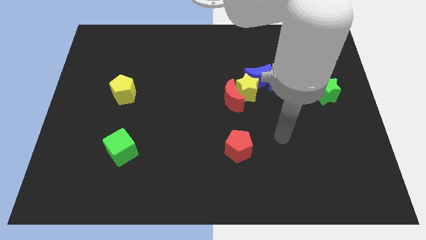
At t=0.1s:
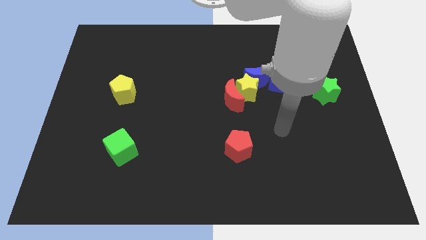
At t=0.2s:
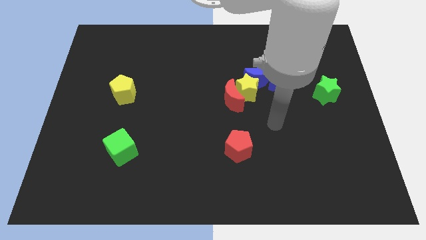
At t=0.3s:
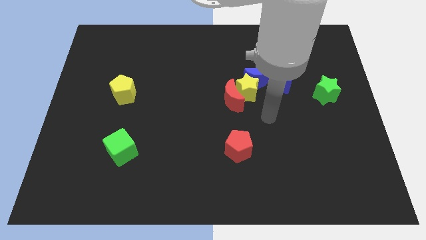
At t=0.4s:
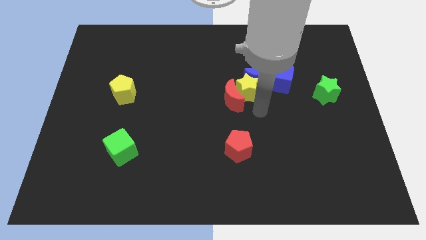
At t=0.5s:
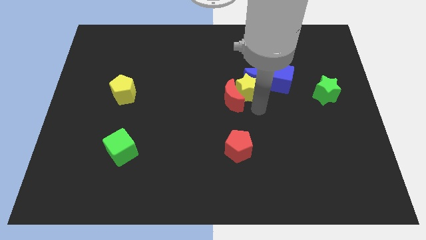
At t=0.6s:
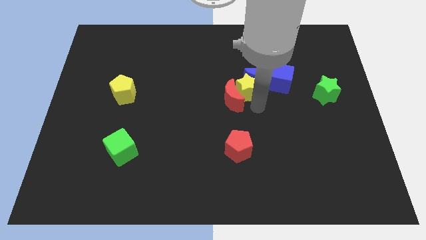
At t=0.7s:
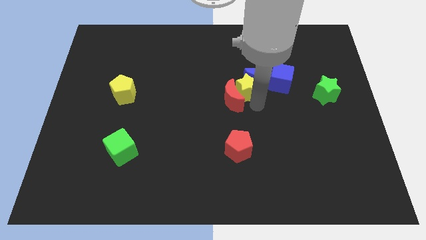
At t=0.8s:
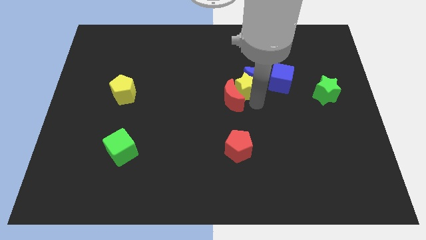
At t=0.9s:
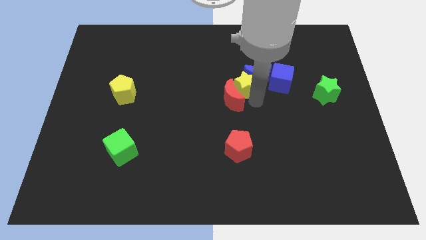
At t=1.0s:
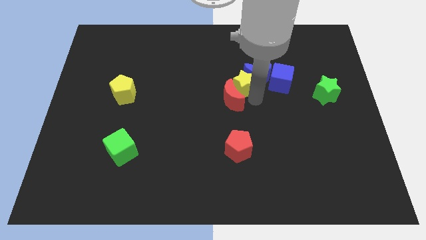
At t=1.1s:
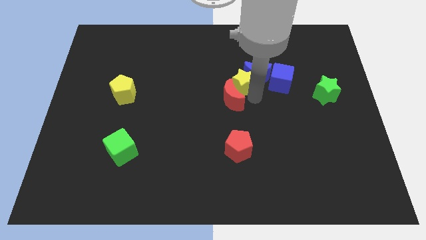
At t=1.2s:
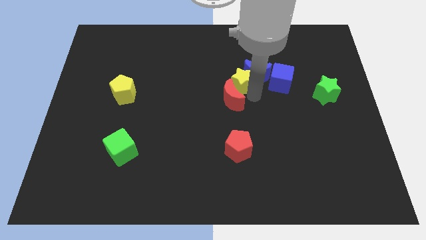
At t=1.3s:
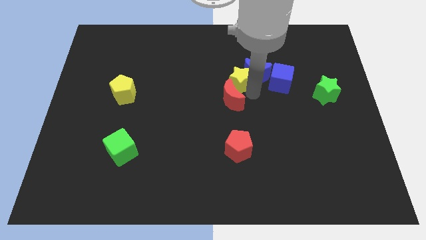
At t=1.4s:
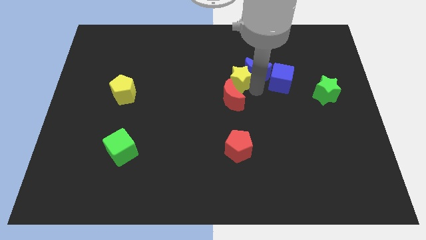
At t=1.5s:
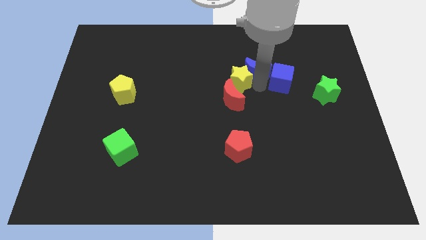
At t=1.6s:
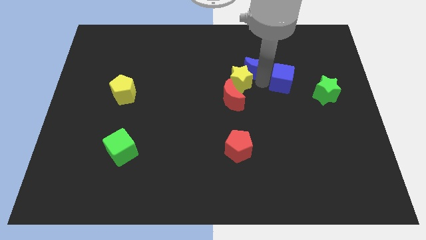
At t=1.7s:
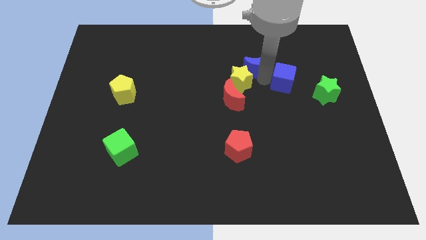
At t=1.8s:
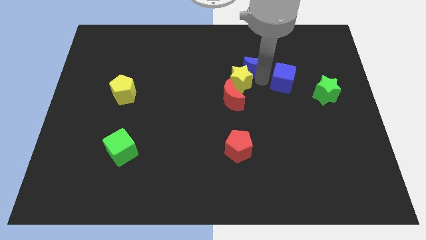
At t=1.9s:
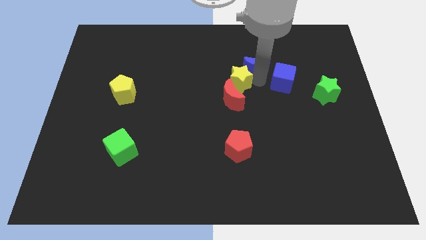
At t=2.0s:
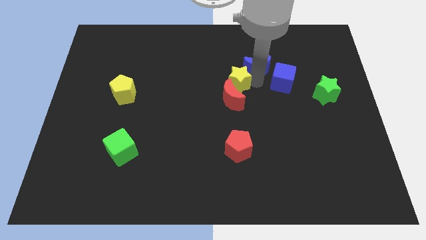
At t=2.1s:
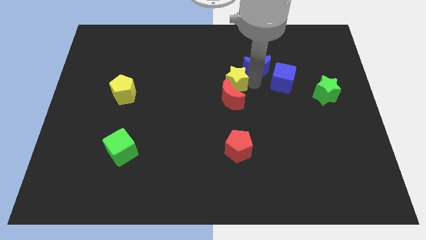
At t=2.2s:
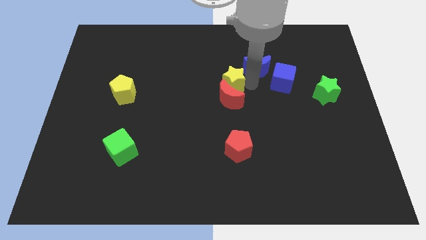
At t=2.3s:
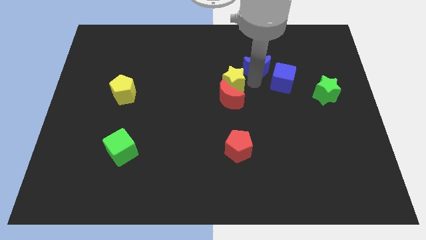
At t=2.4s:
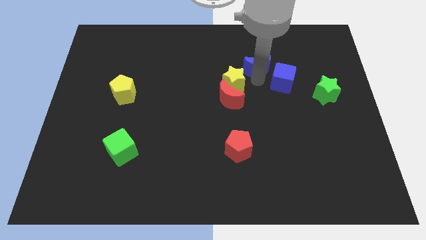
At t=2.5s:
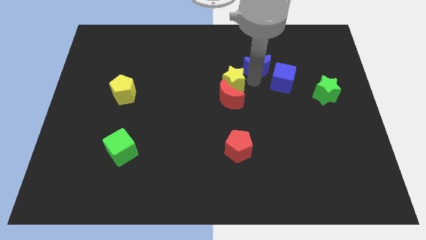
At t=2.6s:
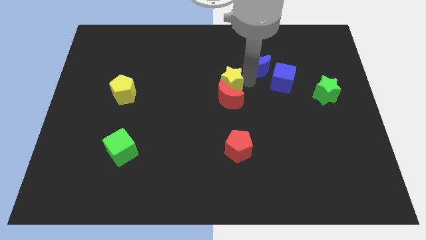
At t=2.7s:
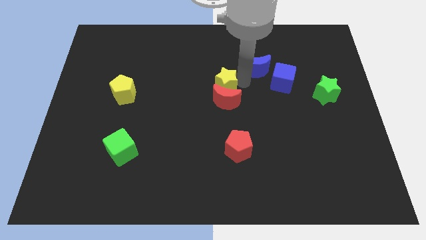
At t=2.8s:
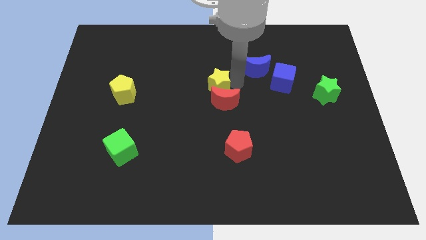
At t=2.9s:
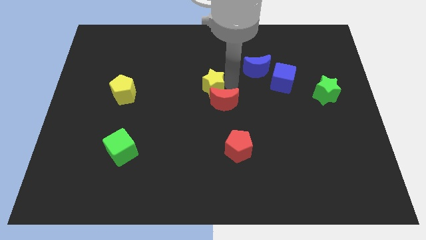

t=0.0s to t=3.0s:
separate the yellow star from the red moon, blue moon, and blue cube

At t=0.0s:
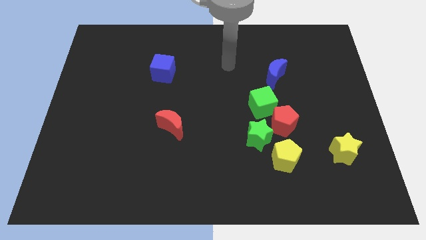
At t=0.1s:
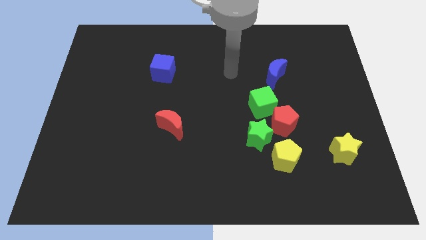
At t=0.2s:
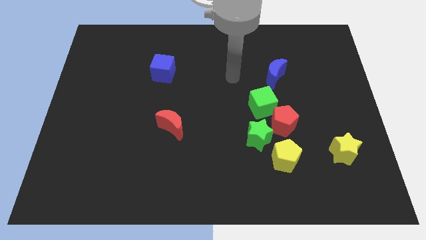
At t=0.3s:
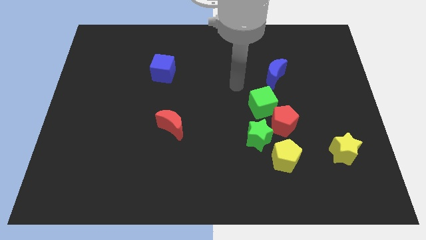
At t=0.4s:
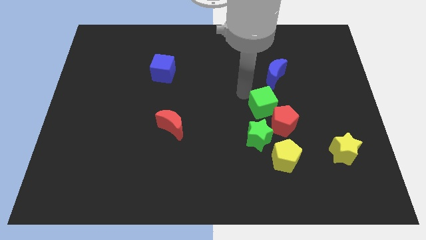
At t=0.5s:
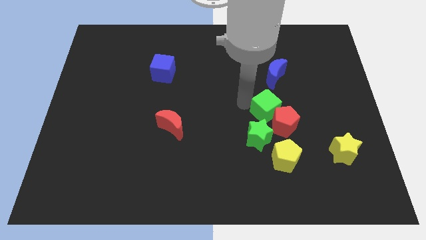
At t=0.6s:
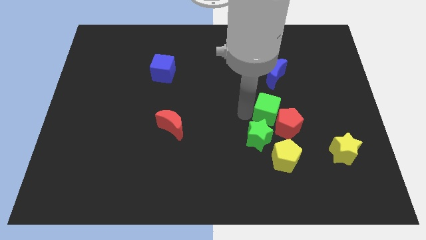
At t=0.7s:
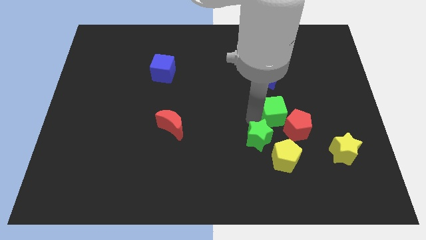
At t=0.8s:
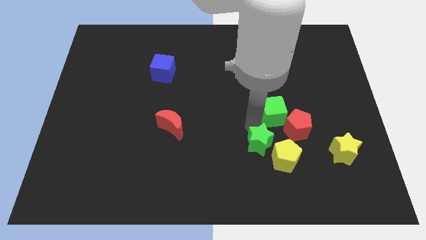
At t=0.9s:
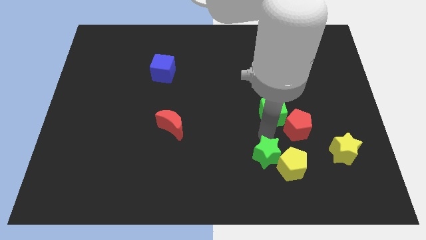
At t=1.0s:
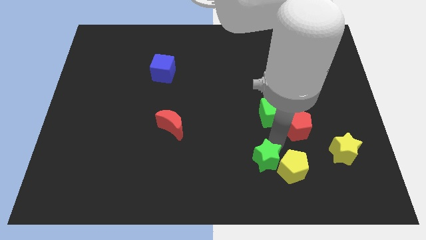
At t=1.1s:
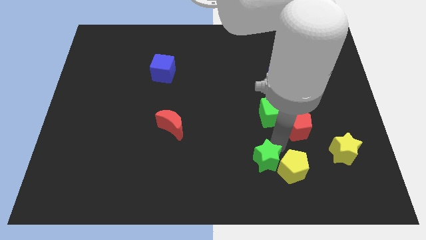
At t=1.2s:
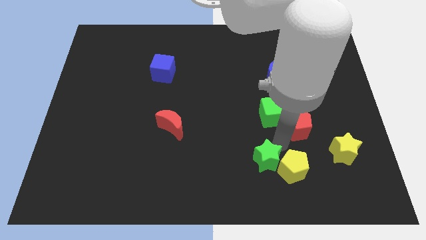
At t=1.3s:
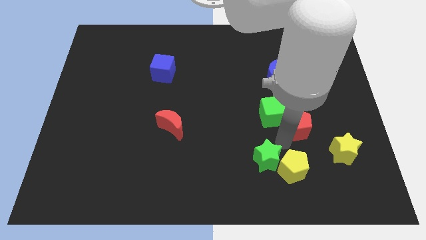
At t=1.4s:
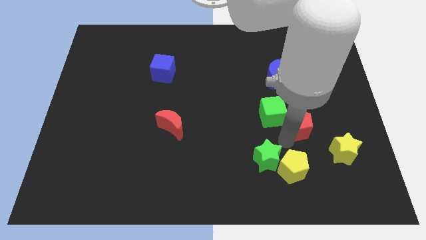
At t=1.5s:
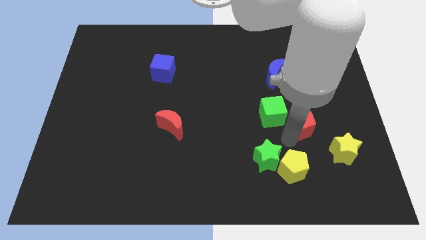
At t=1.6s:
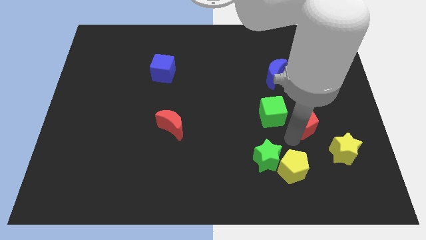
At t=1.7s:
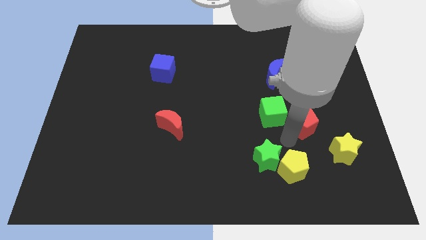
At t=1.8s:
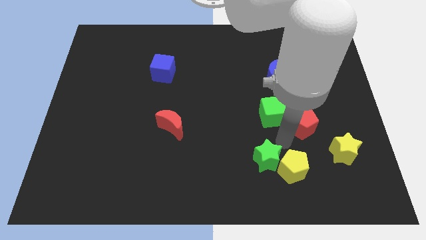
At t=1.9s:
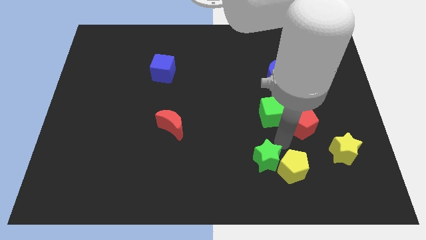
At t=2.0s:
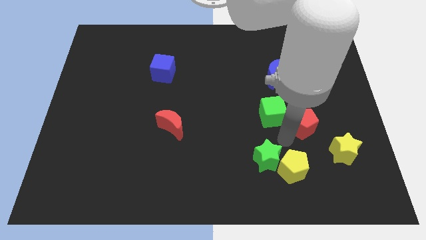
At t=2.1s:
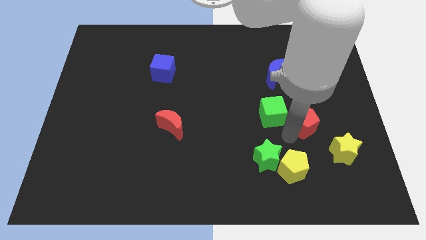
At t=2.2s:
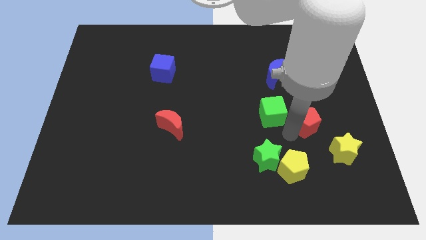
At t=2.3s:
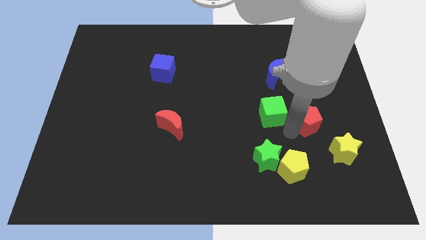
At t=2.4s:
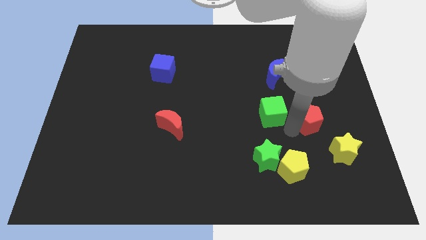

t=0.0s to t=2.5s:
pull the red pentagon apart from the group

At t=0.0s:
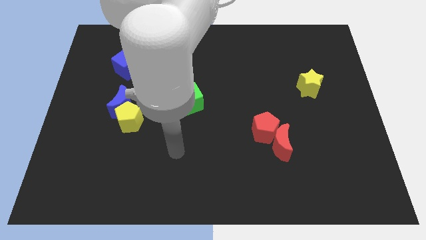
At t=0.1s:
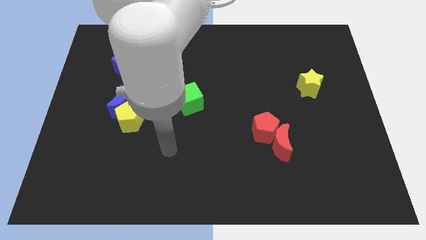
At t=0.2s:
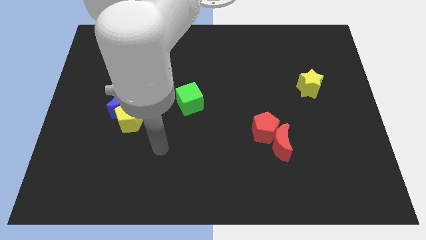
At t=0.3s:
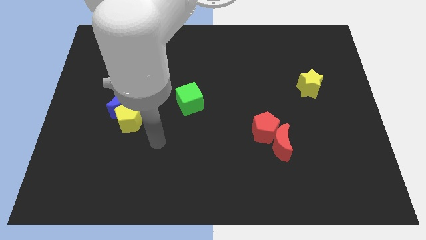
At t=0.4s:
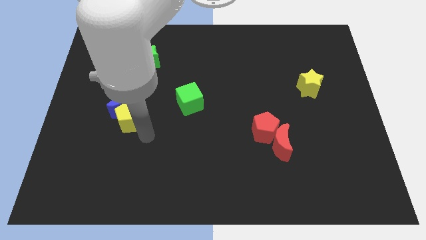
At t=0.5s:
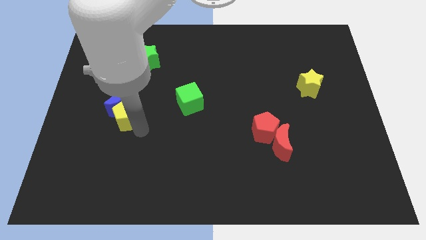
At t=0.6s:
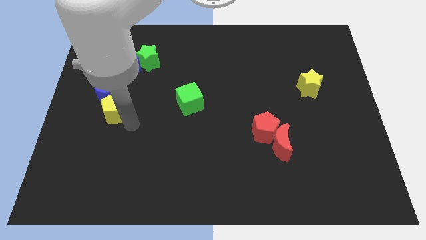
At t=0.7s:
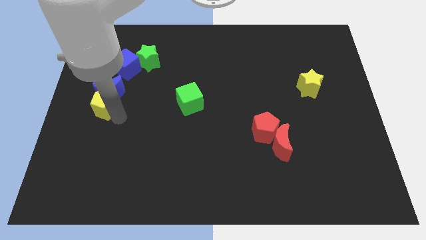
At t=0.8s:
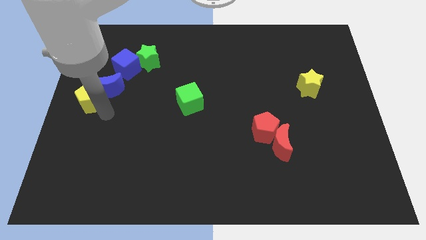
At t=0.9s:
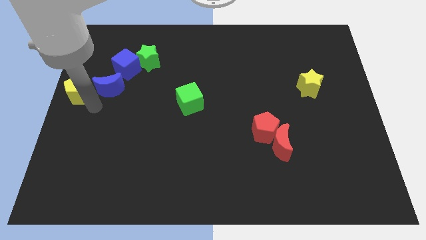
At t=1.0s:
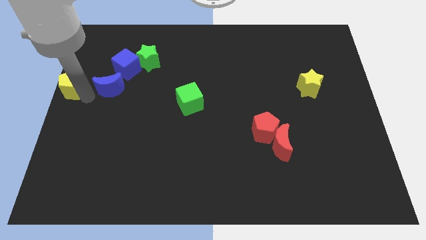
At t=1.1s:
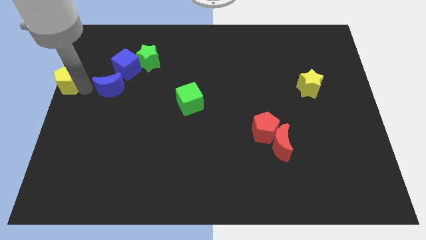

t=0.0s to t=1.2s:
move the blue moon away from the yellow pentagon

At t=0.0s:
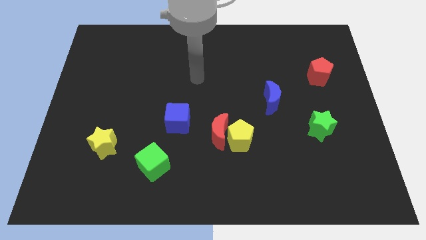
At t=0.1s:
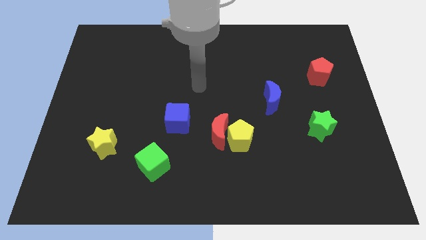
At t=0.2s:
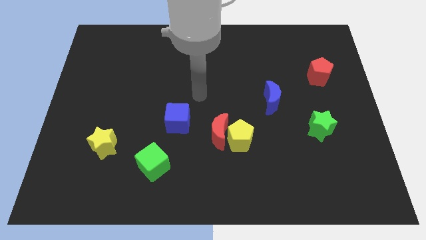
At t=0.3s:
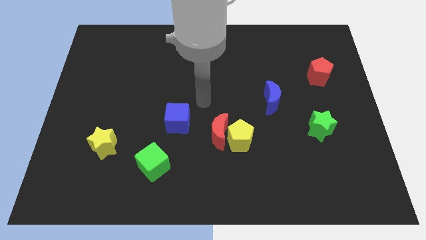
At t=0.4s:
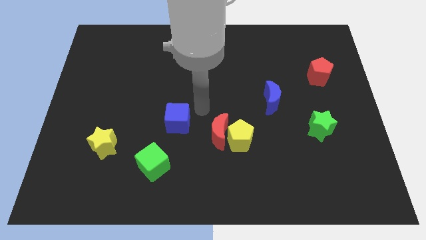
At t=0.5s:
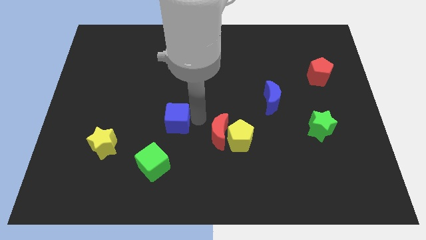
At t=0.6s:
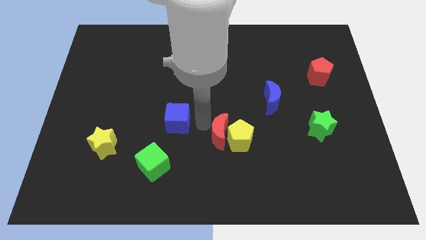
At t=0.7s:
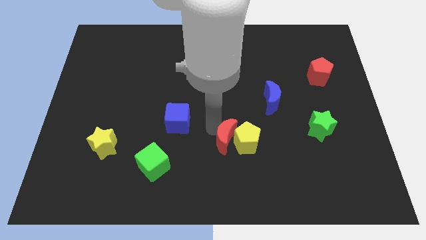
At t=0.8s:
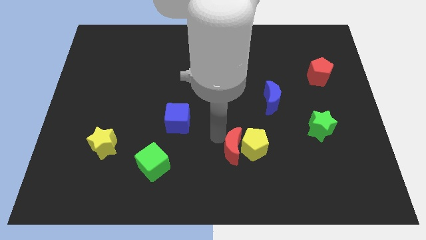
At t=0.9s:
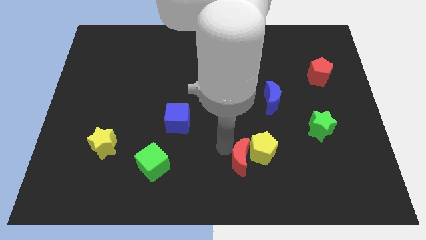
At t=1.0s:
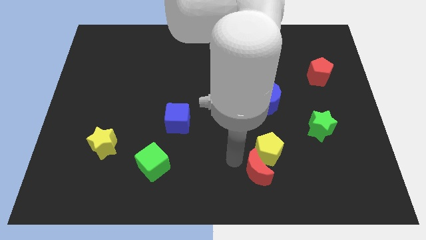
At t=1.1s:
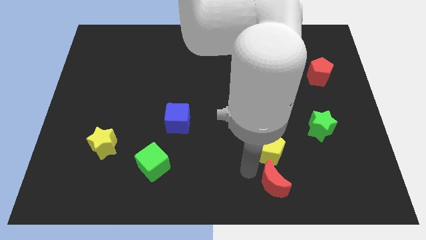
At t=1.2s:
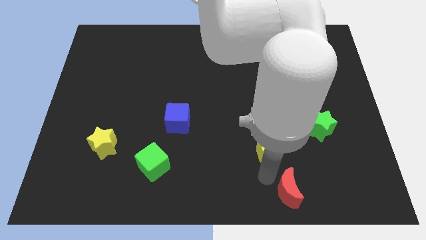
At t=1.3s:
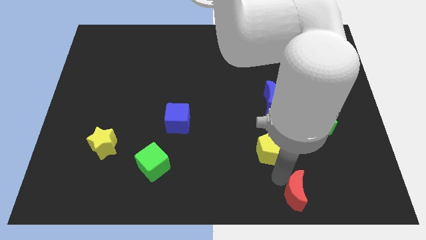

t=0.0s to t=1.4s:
separate the yellow pentagon from the red moon

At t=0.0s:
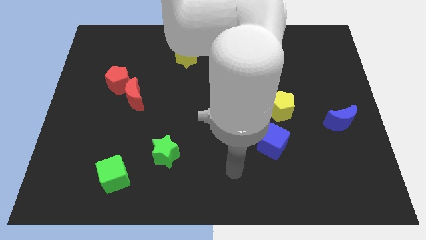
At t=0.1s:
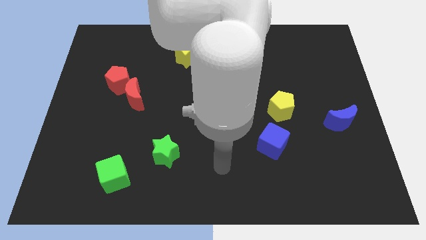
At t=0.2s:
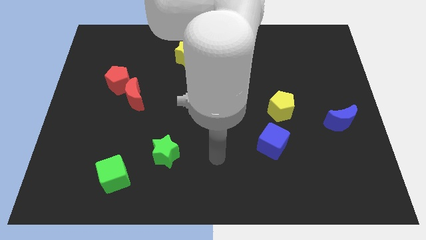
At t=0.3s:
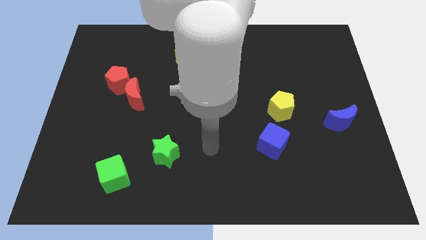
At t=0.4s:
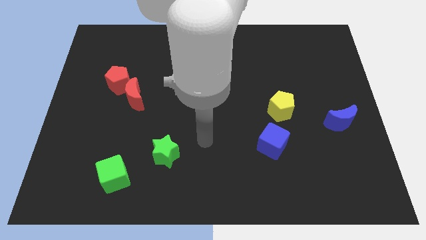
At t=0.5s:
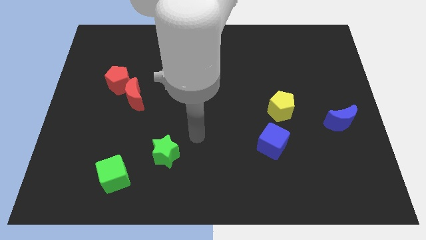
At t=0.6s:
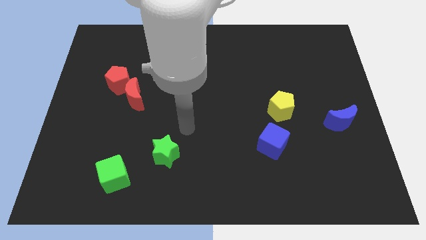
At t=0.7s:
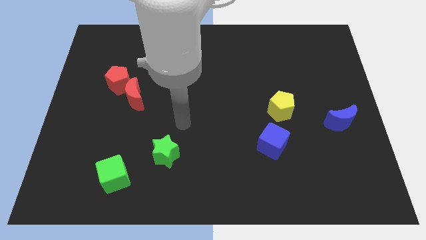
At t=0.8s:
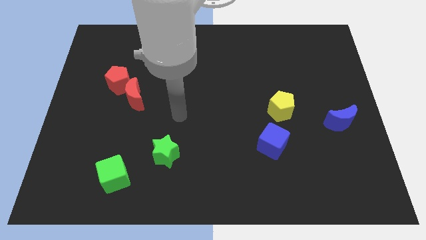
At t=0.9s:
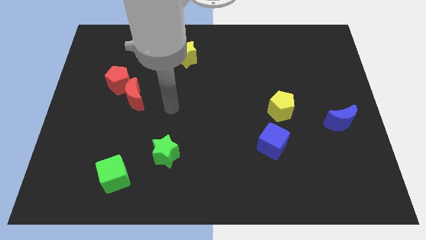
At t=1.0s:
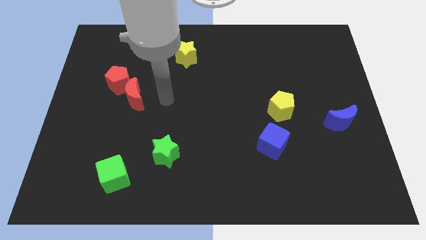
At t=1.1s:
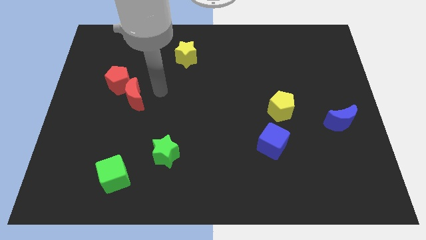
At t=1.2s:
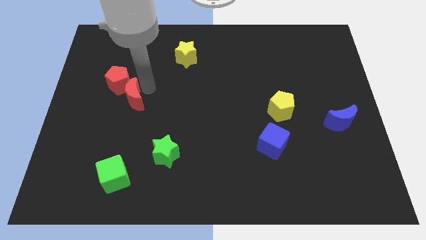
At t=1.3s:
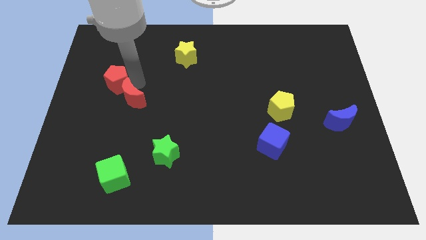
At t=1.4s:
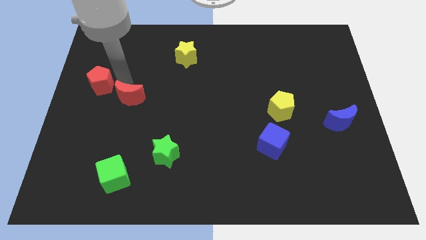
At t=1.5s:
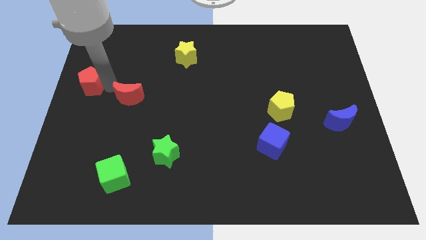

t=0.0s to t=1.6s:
pull the red moon apart from the red pentagon
